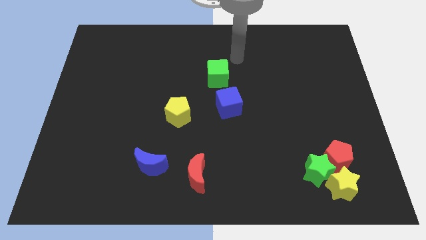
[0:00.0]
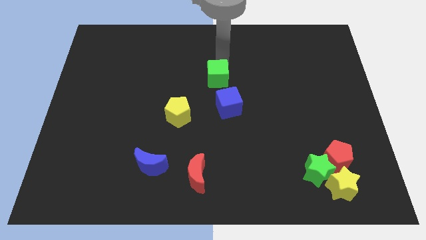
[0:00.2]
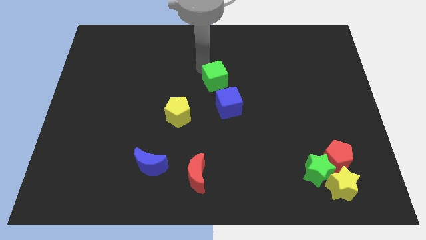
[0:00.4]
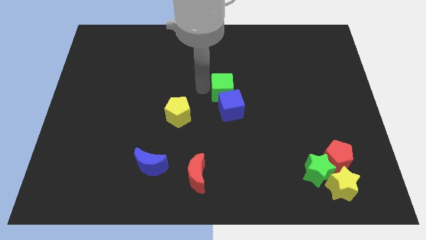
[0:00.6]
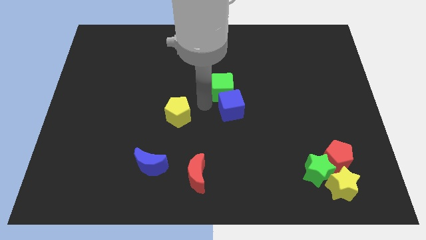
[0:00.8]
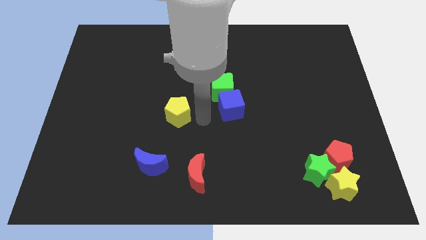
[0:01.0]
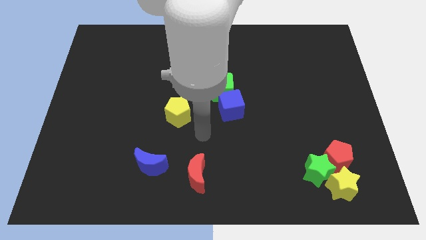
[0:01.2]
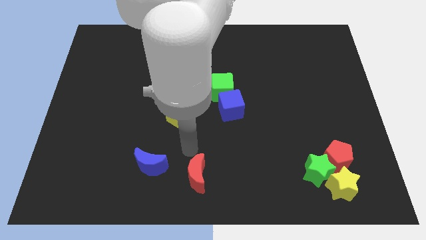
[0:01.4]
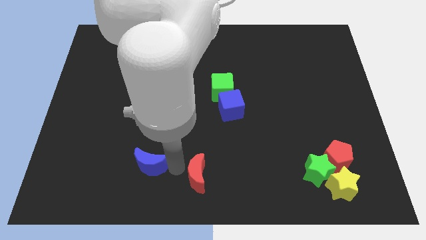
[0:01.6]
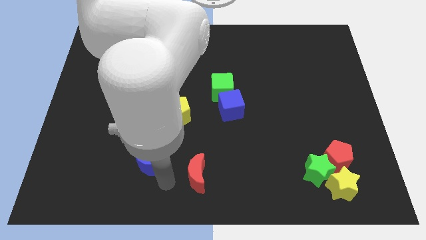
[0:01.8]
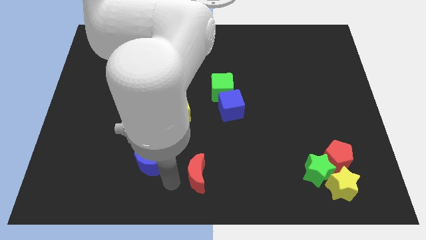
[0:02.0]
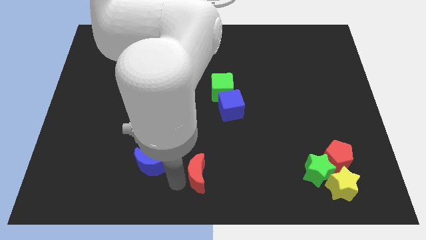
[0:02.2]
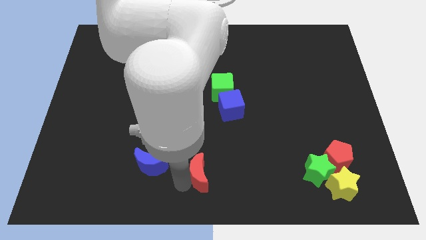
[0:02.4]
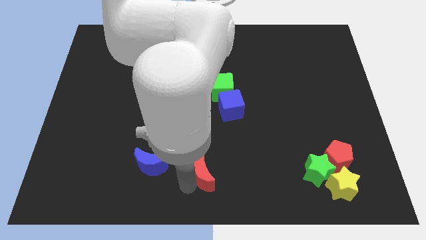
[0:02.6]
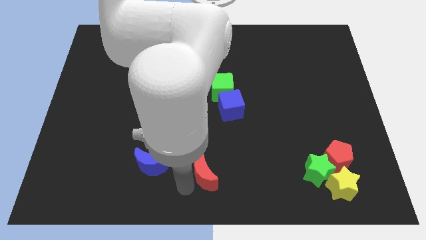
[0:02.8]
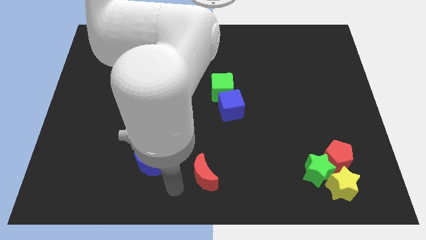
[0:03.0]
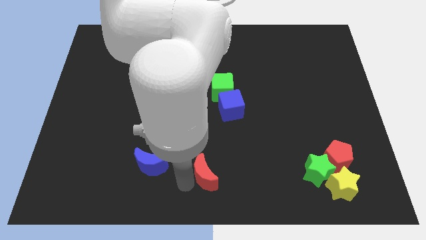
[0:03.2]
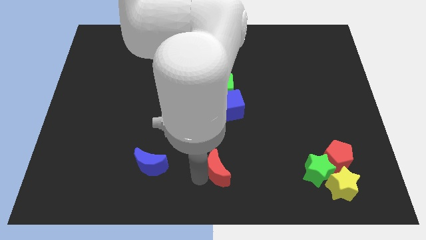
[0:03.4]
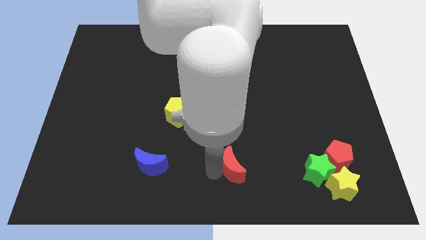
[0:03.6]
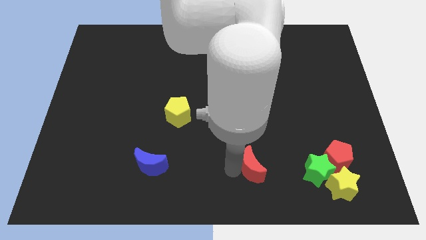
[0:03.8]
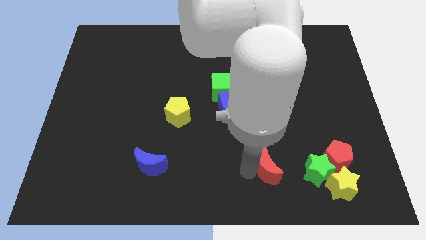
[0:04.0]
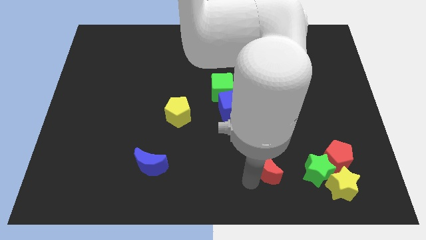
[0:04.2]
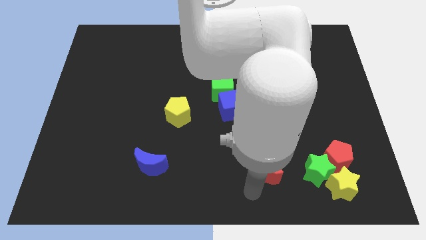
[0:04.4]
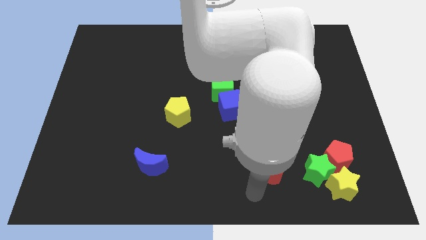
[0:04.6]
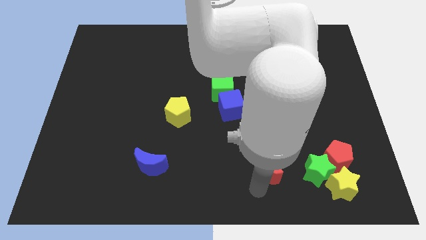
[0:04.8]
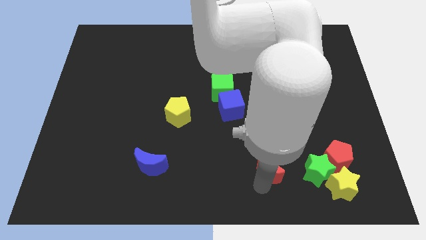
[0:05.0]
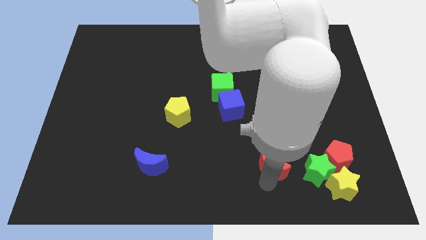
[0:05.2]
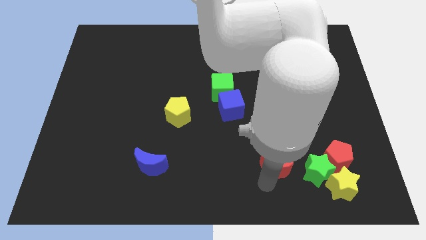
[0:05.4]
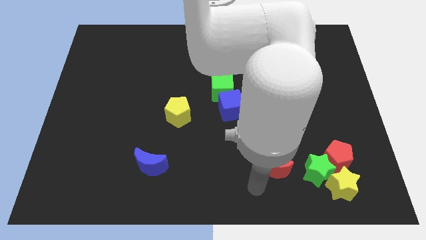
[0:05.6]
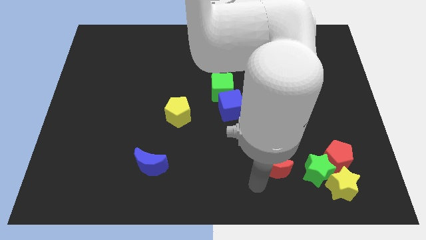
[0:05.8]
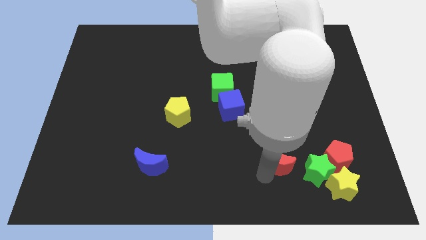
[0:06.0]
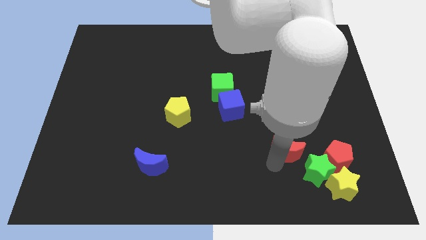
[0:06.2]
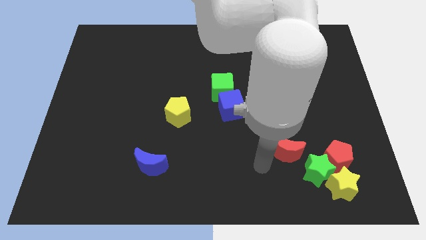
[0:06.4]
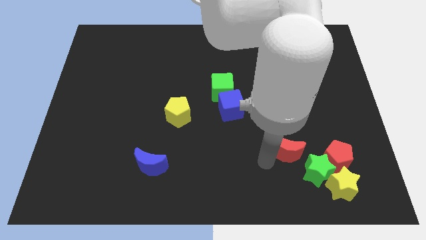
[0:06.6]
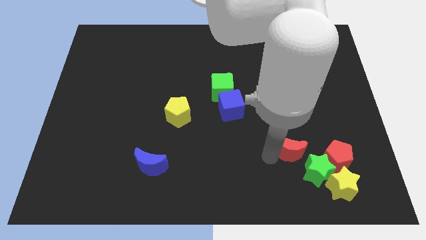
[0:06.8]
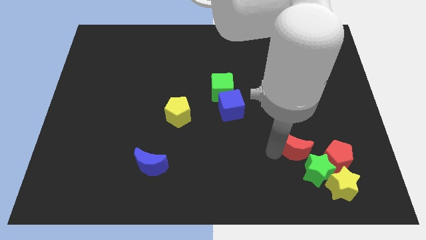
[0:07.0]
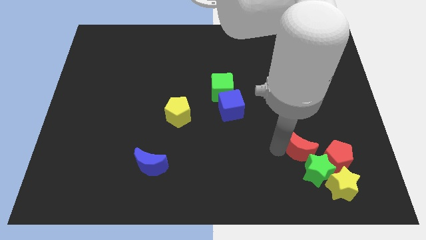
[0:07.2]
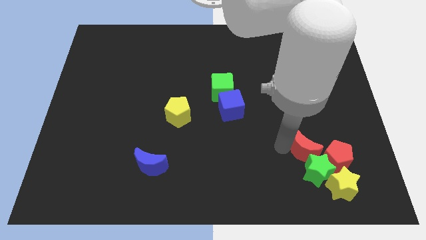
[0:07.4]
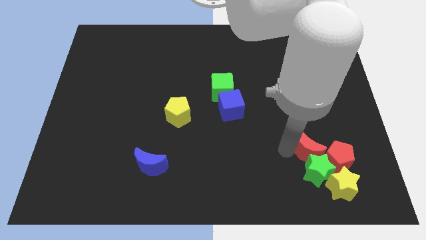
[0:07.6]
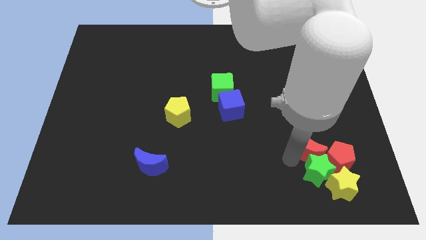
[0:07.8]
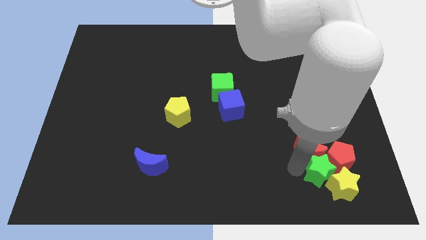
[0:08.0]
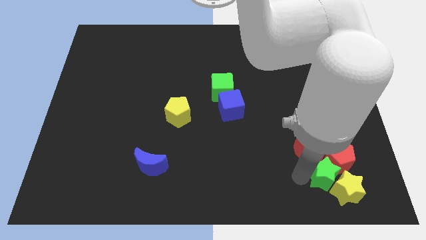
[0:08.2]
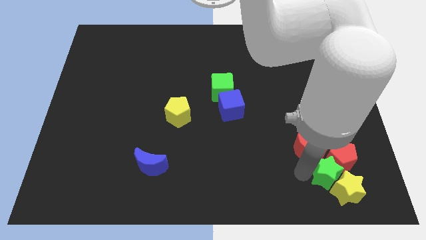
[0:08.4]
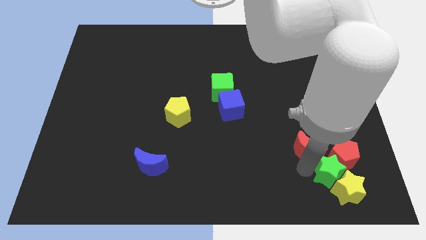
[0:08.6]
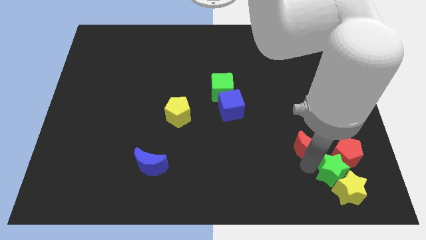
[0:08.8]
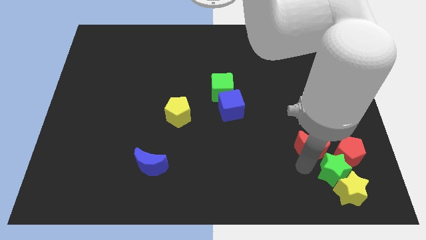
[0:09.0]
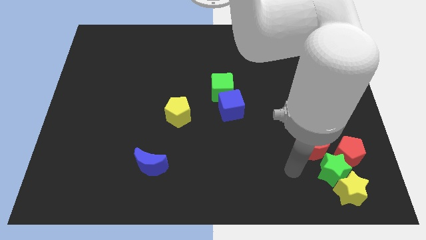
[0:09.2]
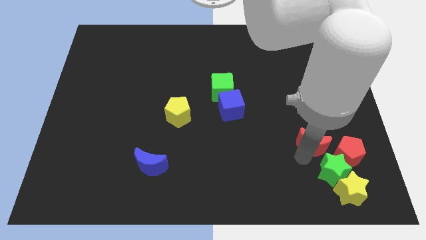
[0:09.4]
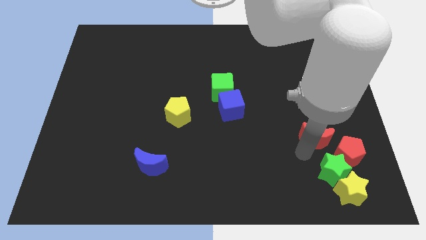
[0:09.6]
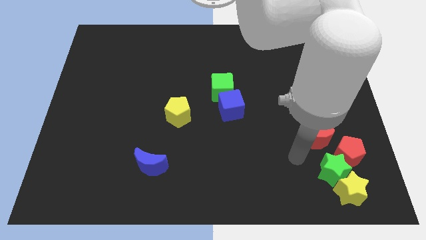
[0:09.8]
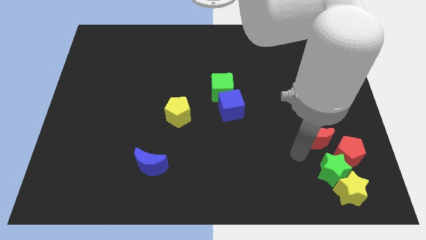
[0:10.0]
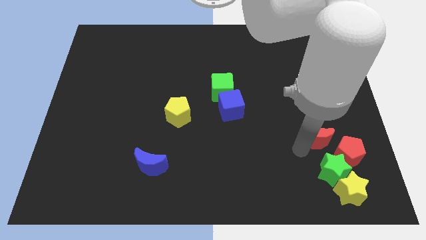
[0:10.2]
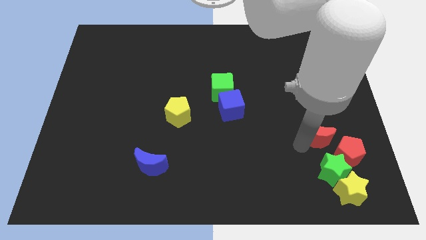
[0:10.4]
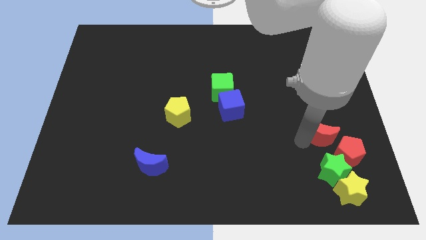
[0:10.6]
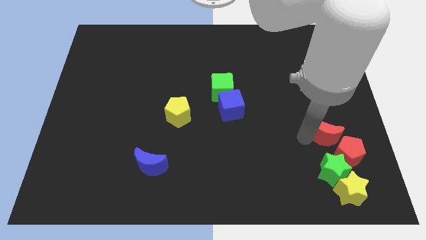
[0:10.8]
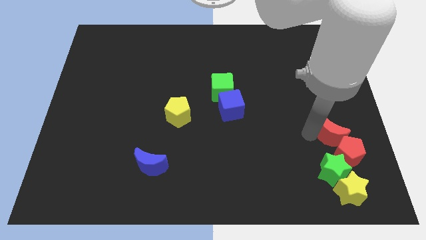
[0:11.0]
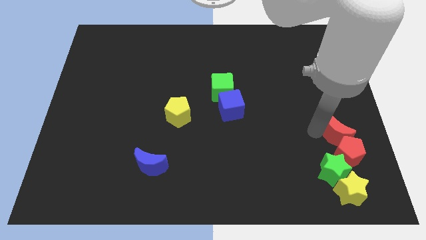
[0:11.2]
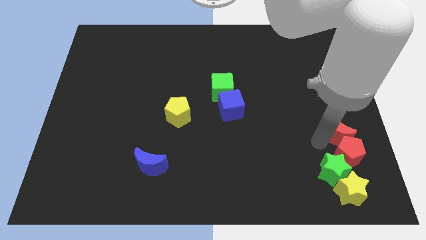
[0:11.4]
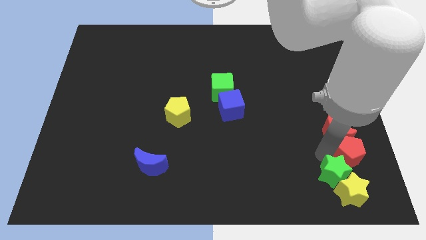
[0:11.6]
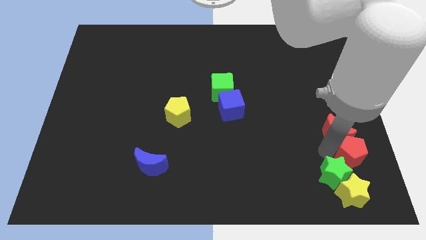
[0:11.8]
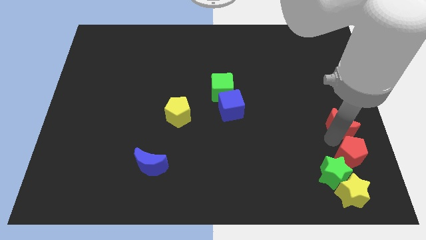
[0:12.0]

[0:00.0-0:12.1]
move the red moon to the right side

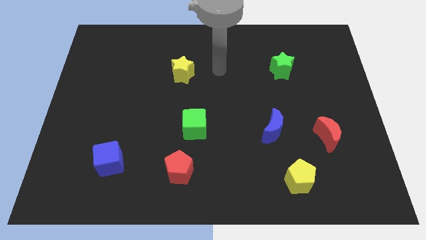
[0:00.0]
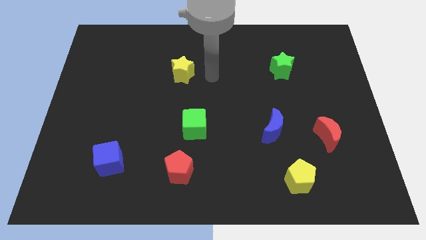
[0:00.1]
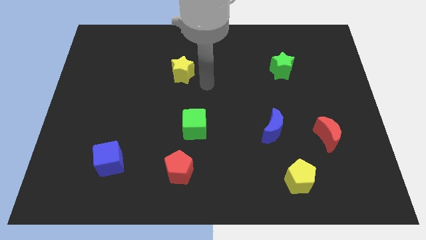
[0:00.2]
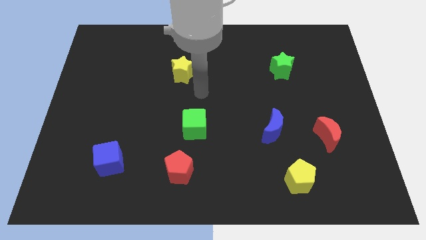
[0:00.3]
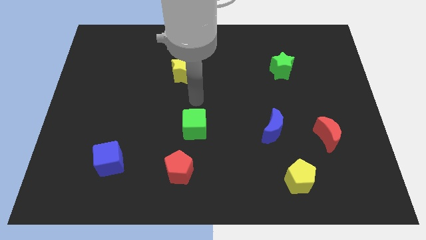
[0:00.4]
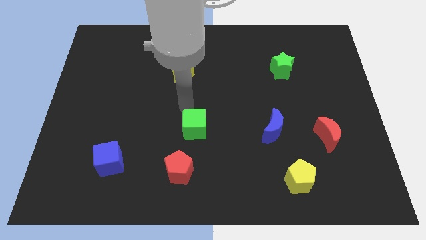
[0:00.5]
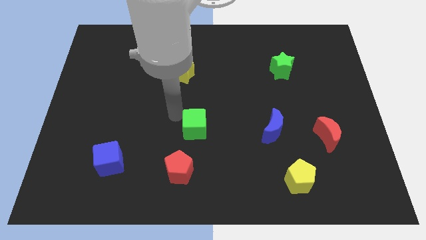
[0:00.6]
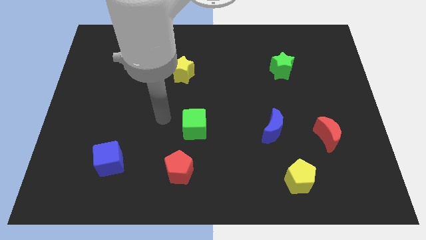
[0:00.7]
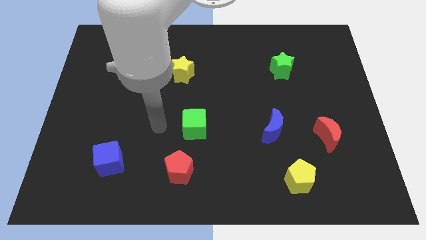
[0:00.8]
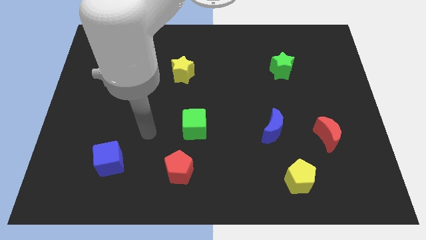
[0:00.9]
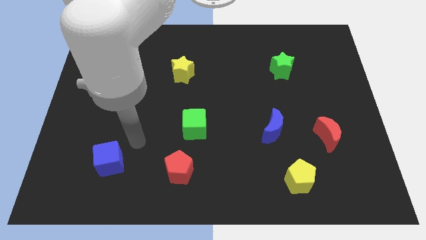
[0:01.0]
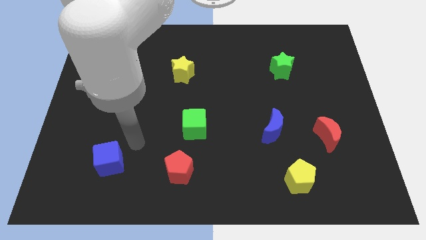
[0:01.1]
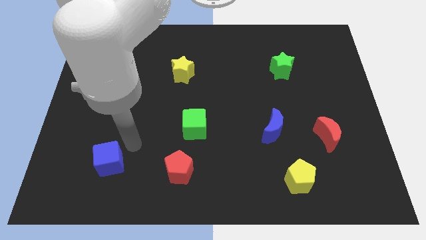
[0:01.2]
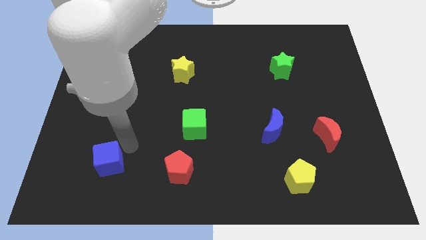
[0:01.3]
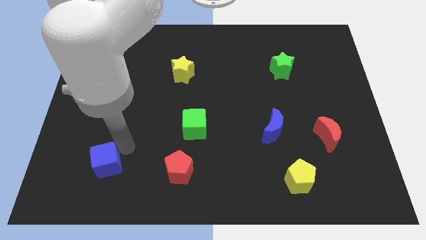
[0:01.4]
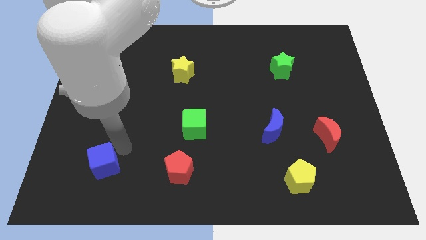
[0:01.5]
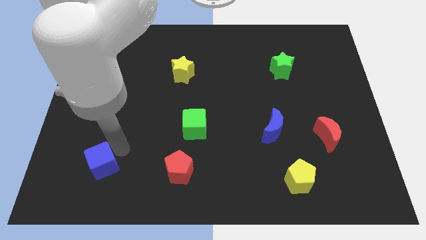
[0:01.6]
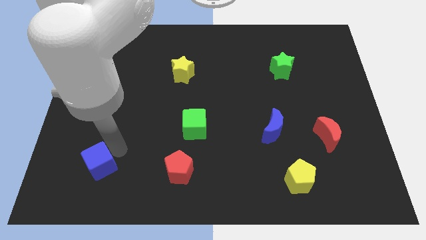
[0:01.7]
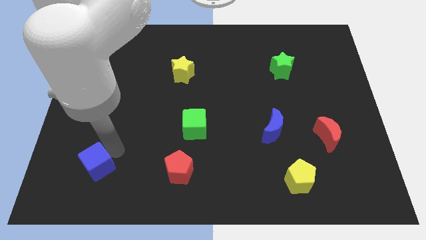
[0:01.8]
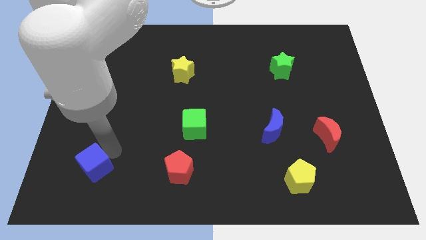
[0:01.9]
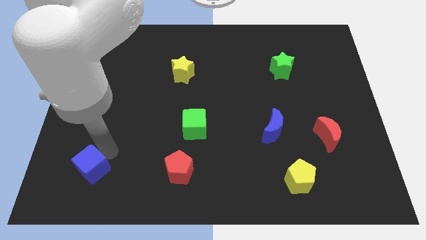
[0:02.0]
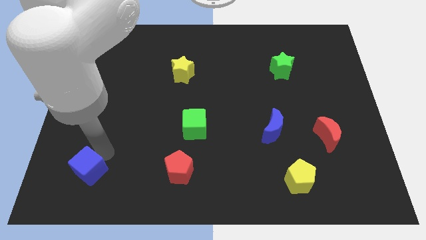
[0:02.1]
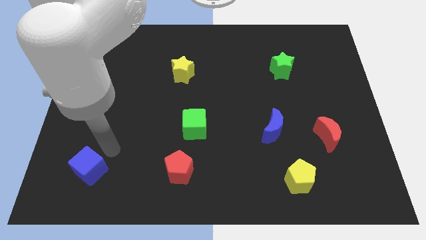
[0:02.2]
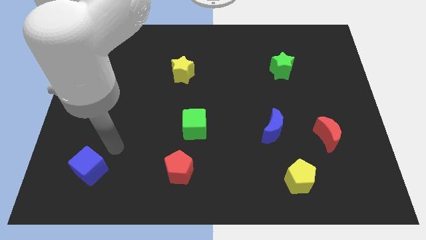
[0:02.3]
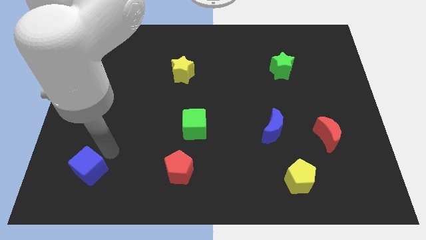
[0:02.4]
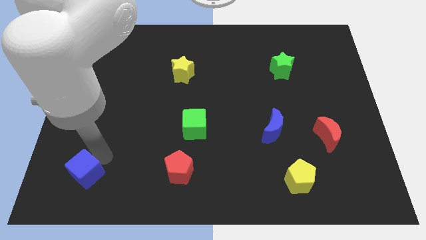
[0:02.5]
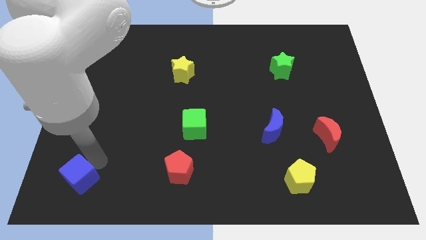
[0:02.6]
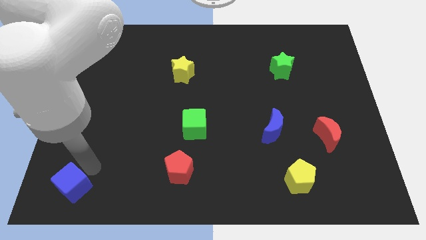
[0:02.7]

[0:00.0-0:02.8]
push the blue cube to the lower left corner
